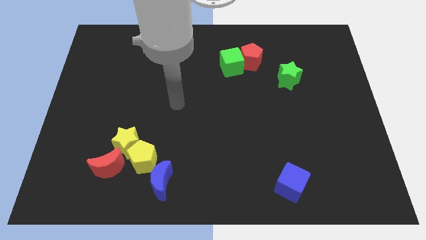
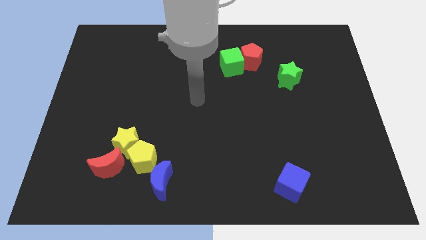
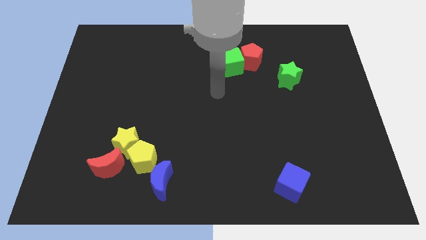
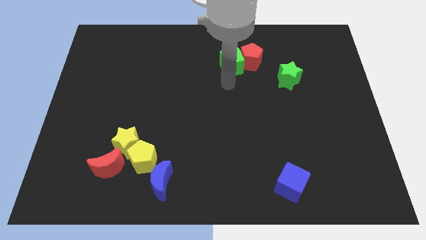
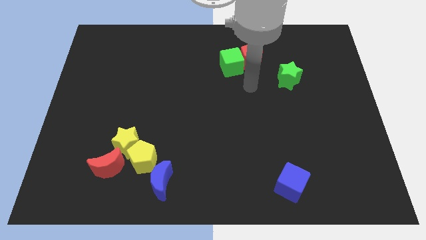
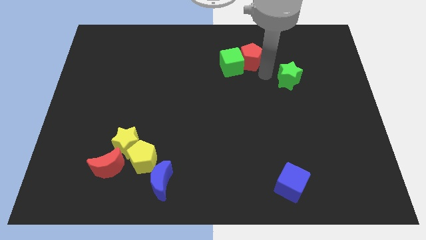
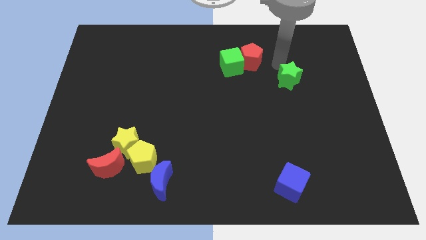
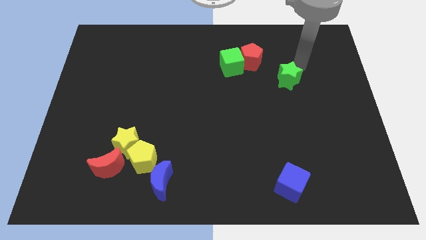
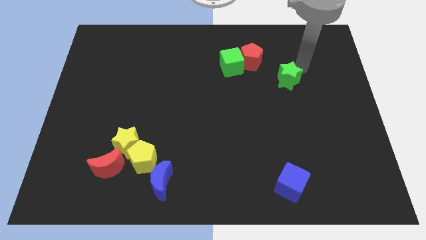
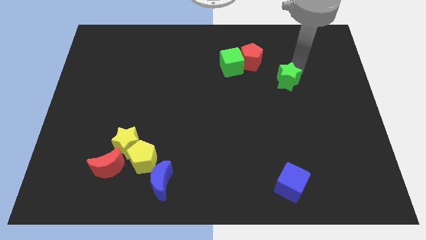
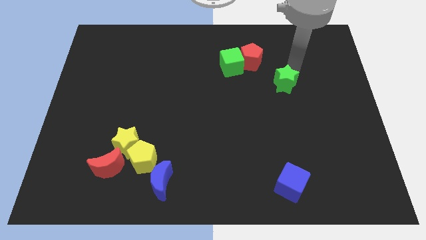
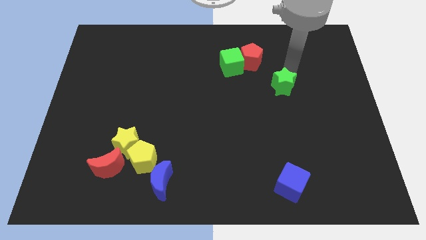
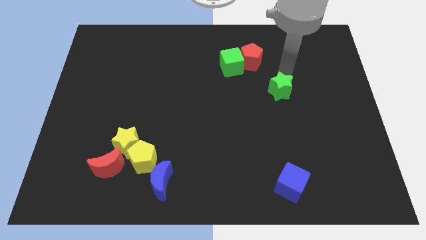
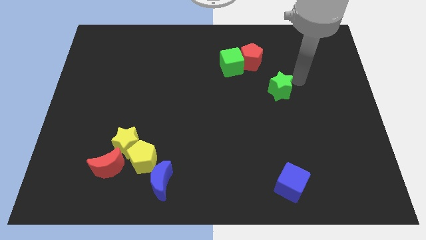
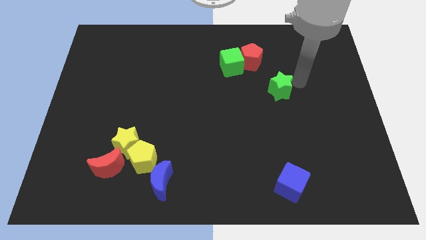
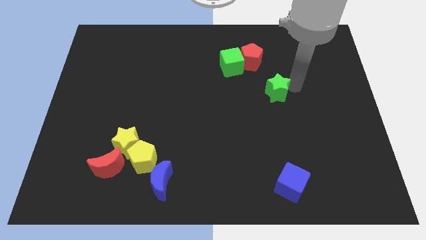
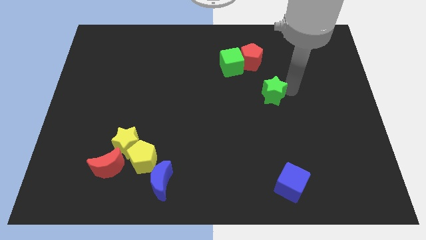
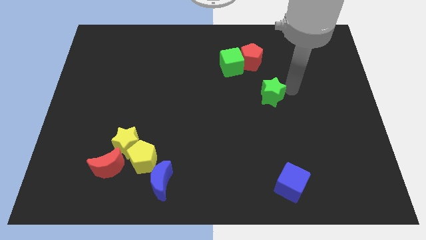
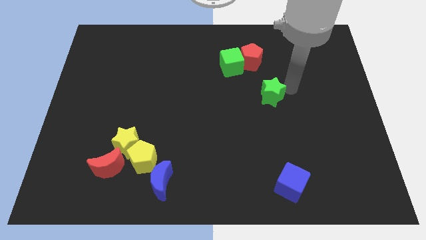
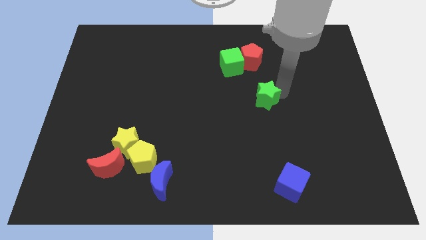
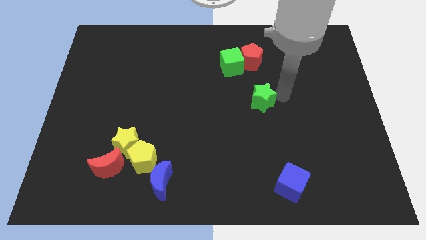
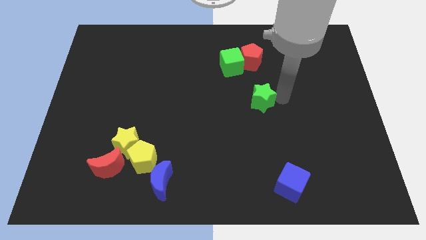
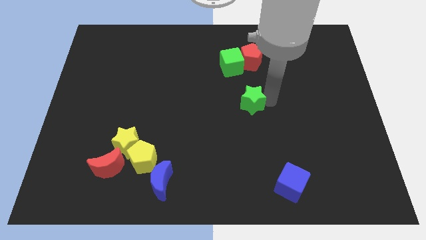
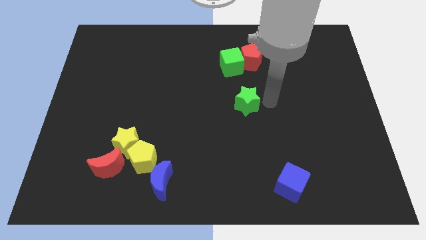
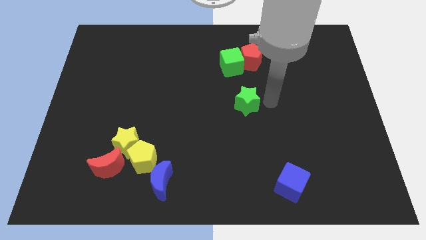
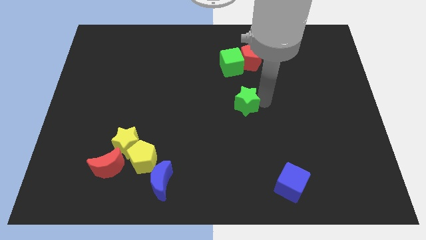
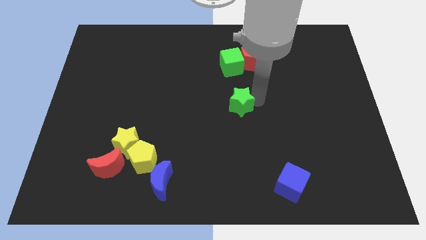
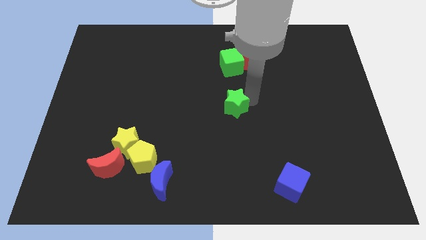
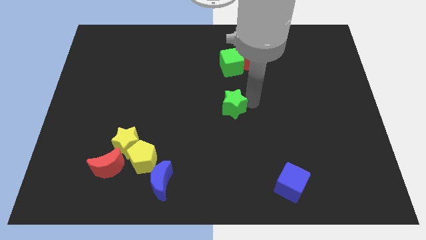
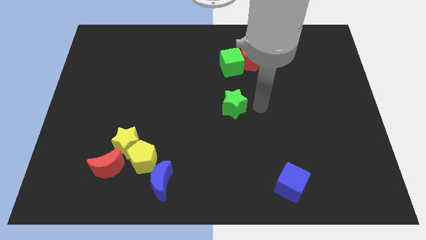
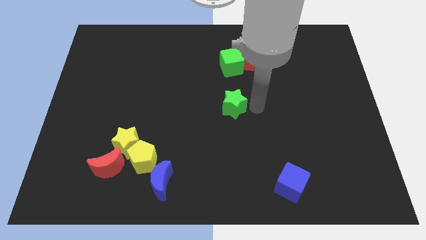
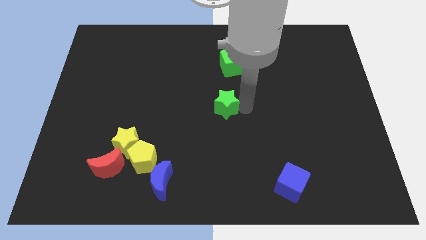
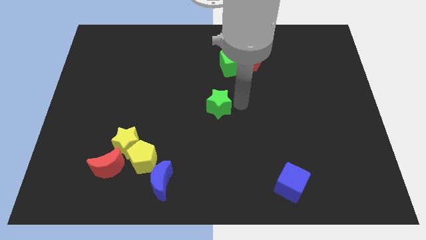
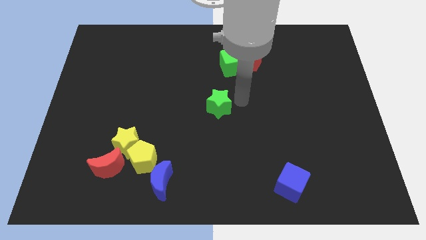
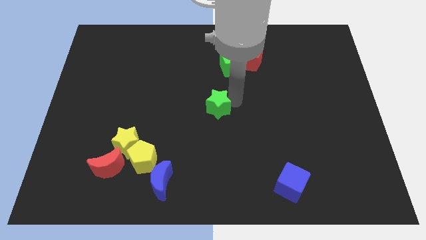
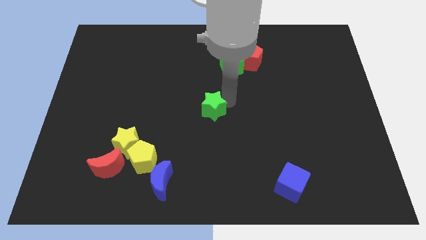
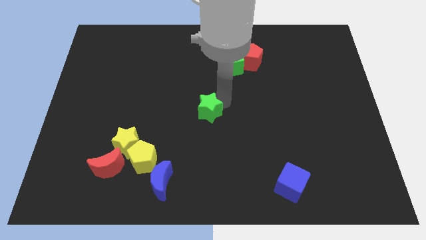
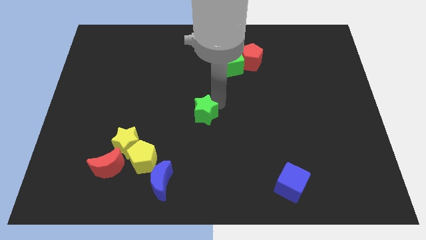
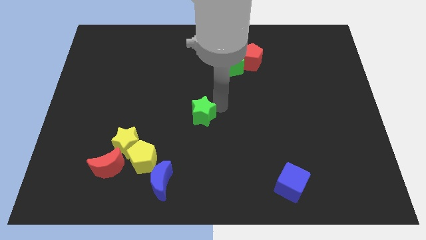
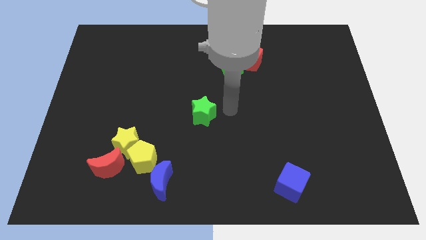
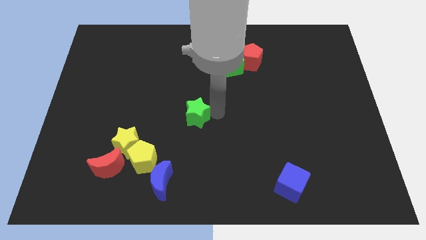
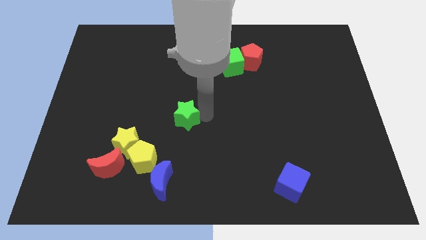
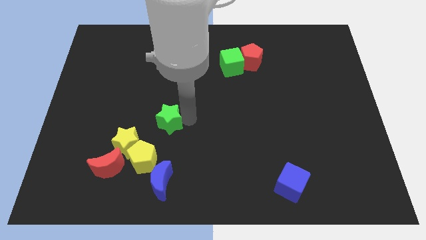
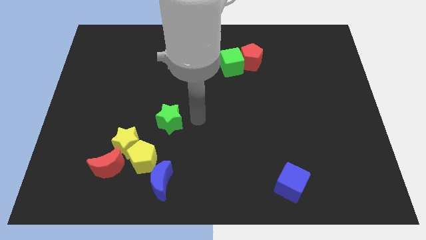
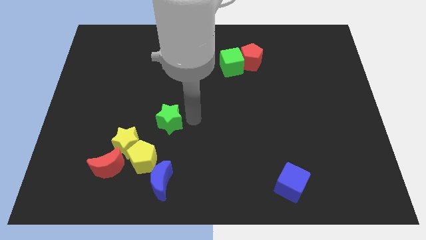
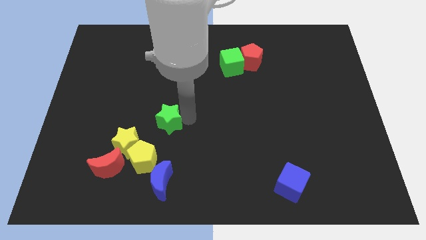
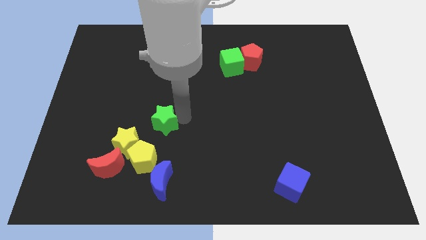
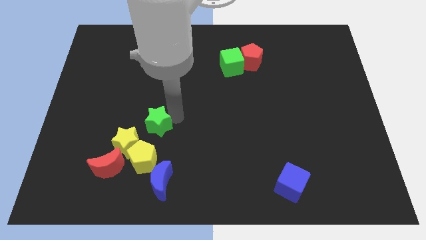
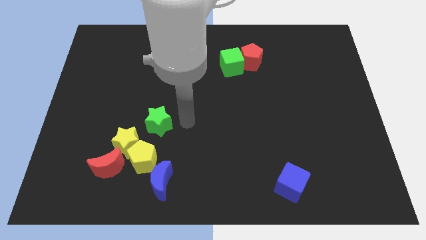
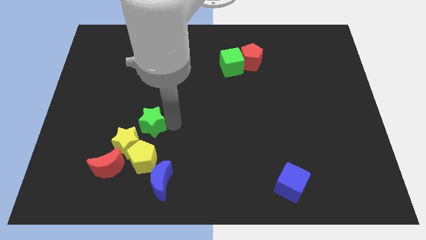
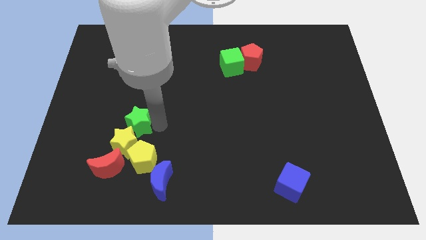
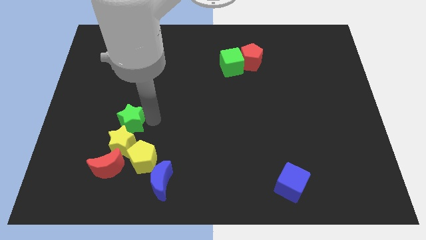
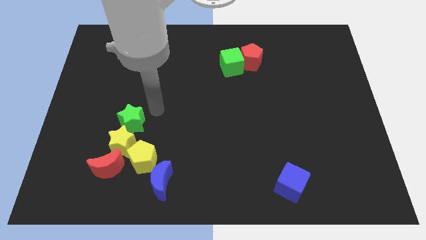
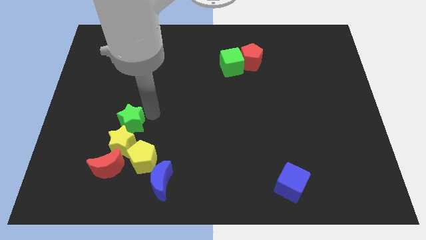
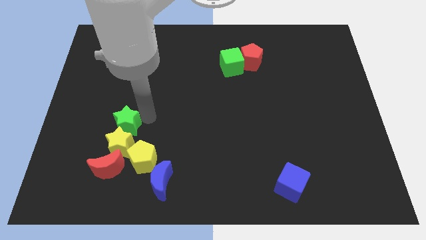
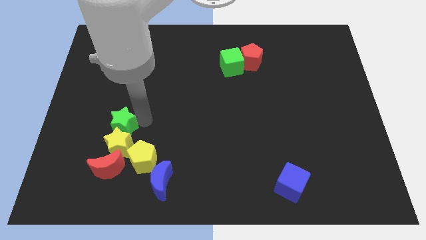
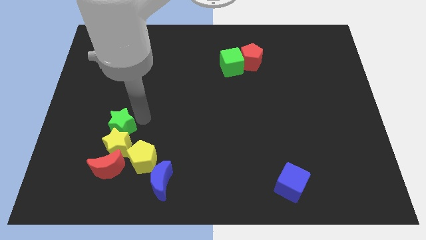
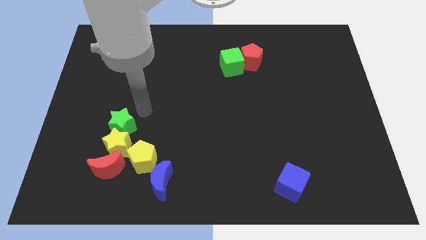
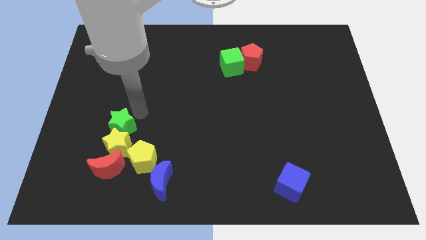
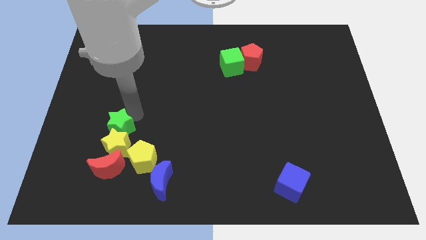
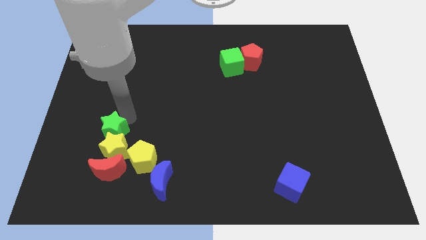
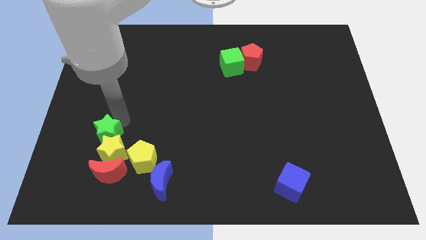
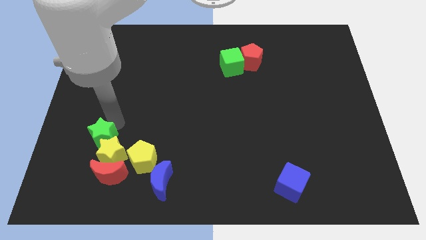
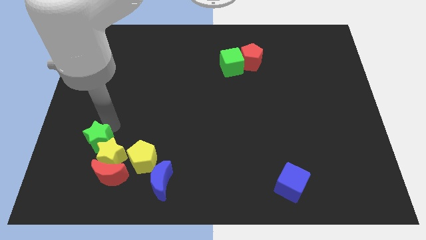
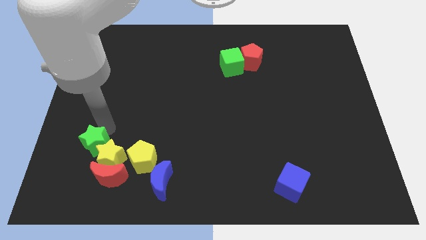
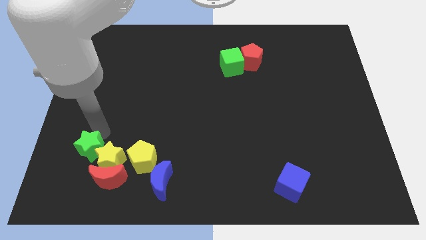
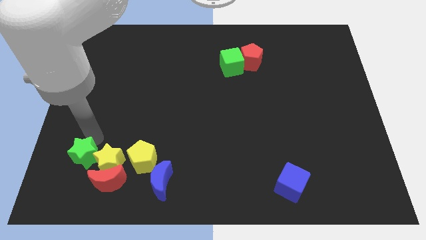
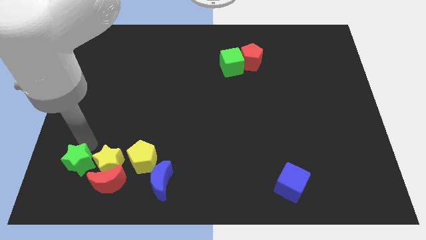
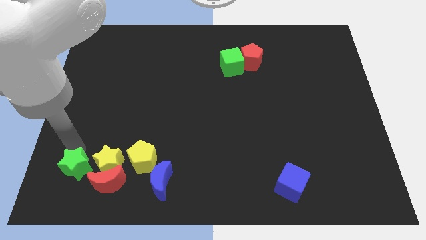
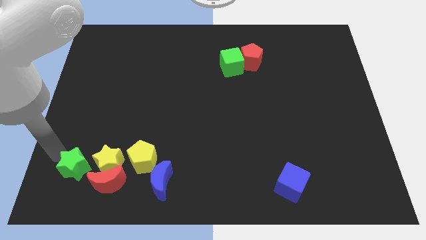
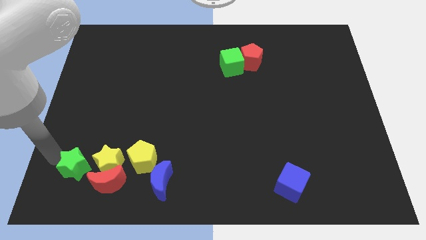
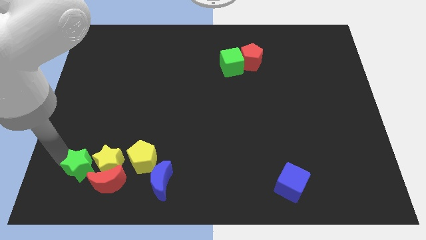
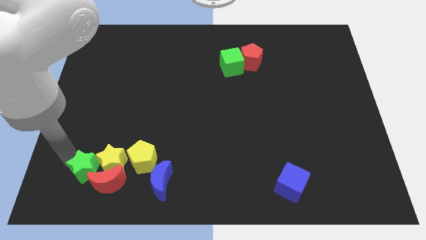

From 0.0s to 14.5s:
slide the green star next to the red moon
